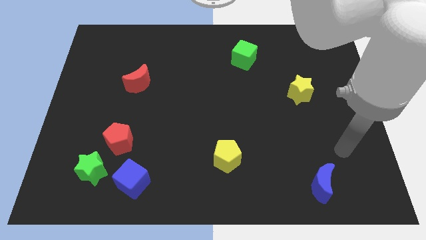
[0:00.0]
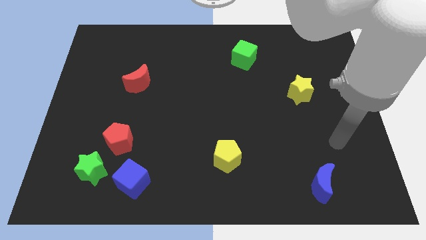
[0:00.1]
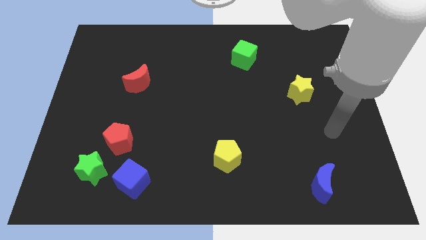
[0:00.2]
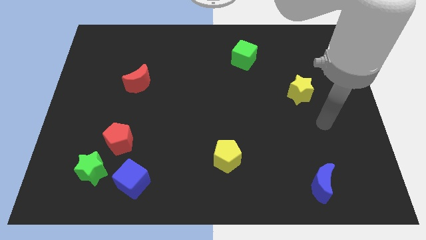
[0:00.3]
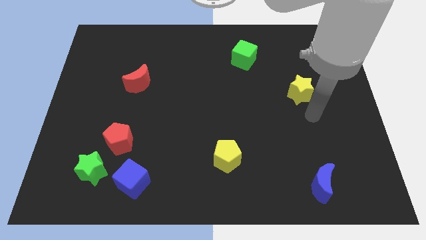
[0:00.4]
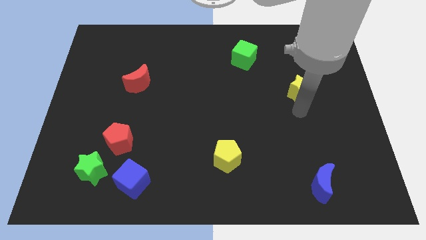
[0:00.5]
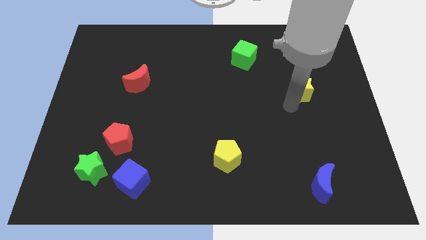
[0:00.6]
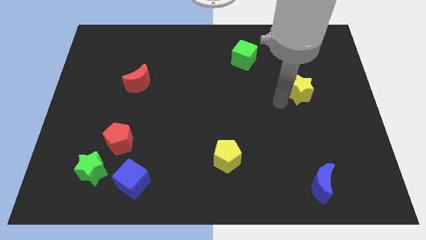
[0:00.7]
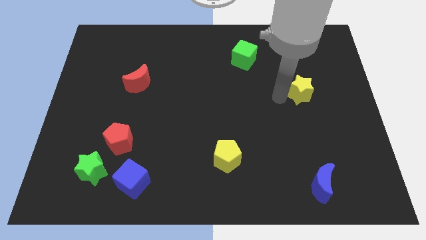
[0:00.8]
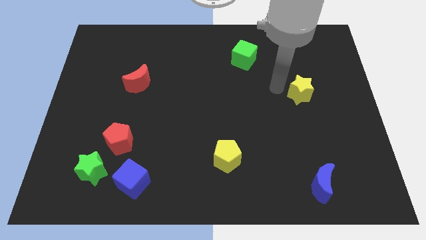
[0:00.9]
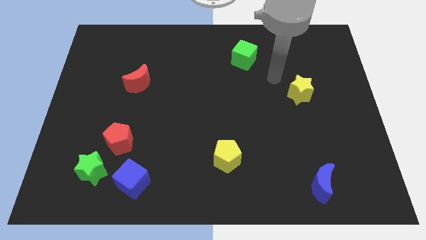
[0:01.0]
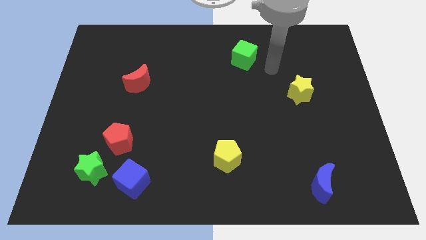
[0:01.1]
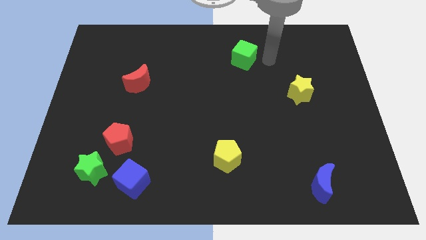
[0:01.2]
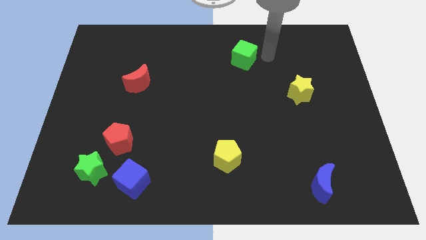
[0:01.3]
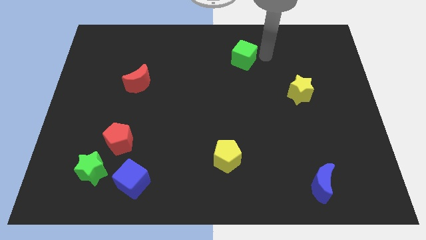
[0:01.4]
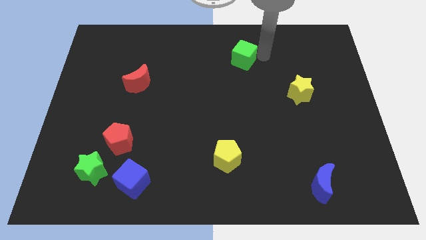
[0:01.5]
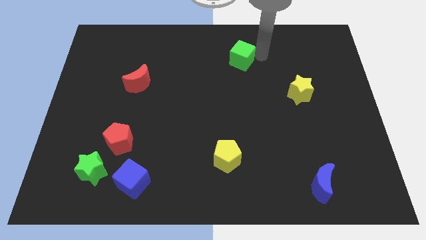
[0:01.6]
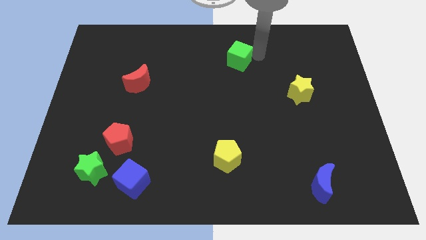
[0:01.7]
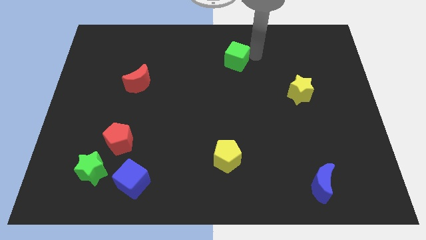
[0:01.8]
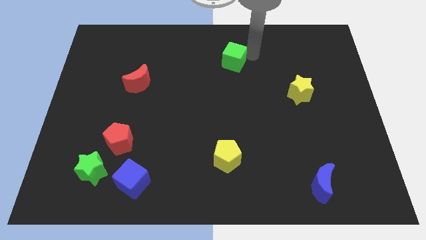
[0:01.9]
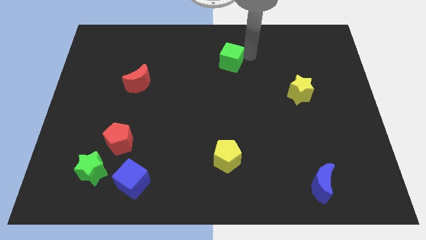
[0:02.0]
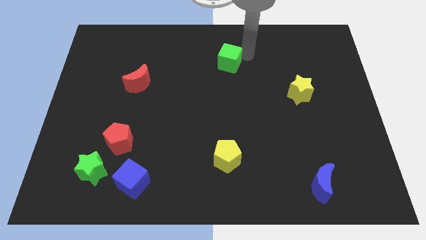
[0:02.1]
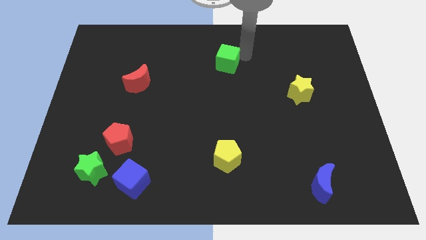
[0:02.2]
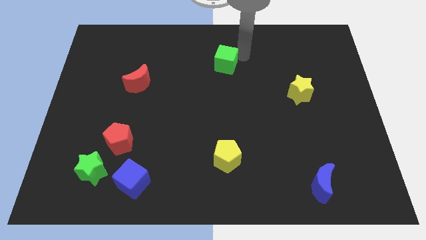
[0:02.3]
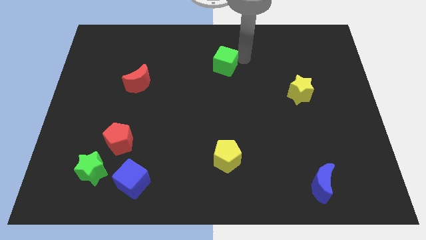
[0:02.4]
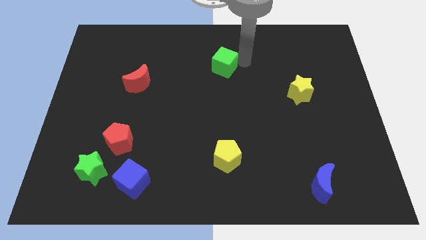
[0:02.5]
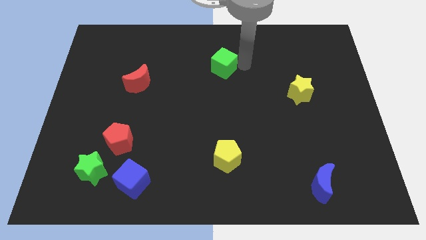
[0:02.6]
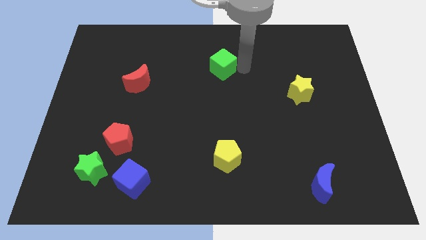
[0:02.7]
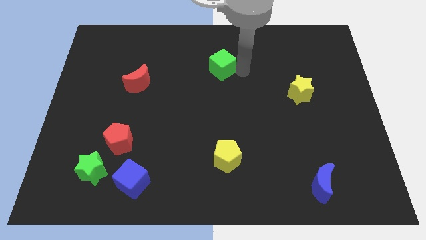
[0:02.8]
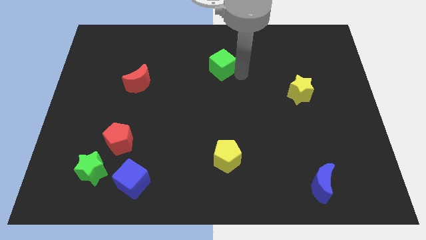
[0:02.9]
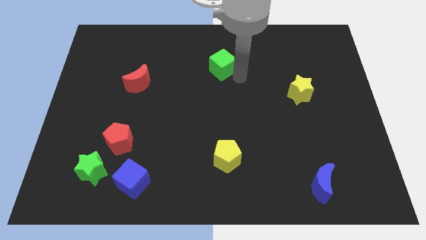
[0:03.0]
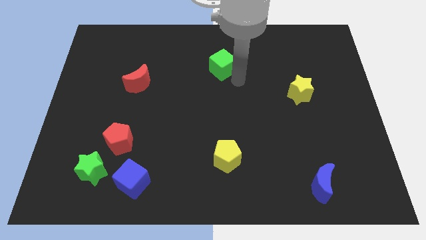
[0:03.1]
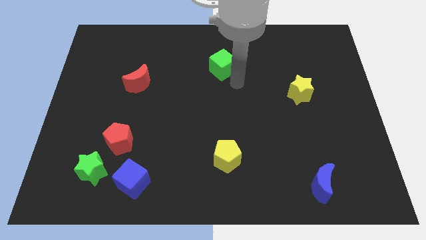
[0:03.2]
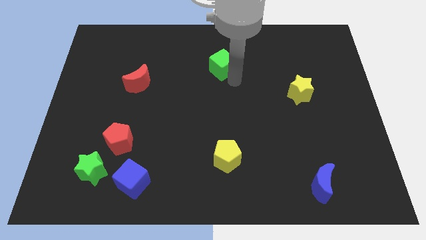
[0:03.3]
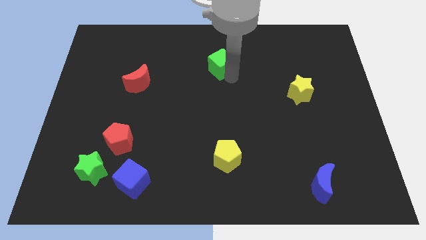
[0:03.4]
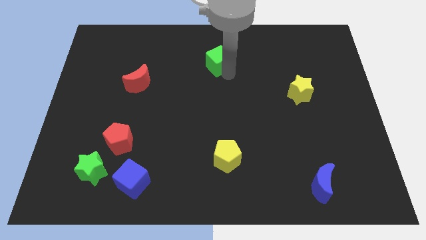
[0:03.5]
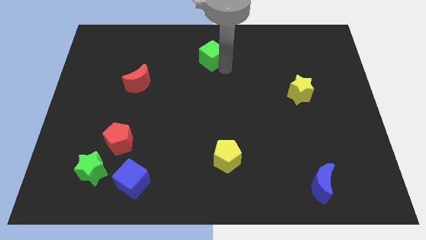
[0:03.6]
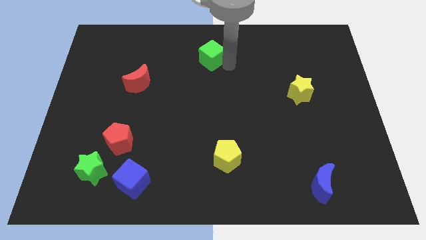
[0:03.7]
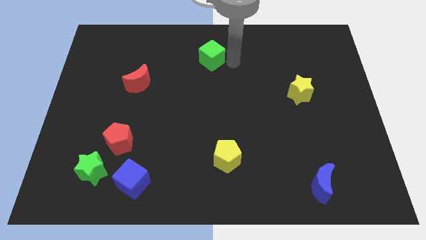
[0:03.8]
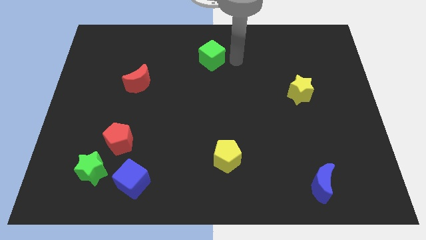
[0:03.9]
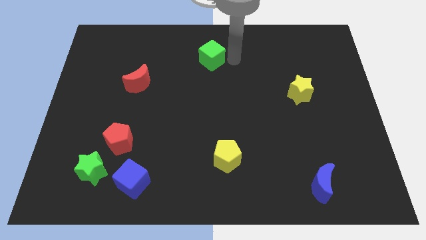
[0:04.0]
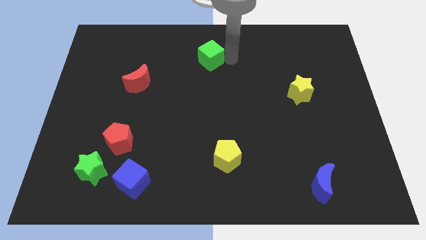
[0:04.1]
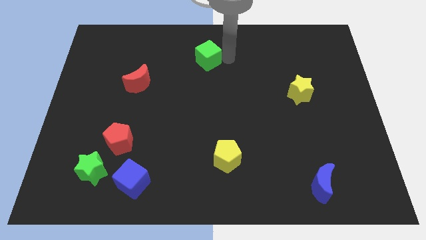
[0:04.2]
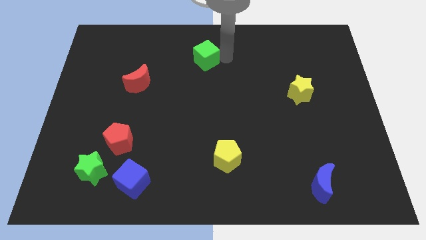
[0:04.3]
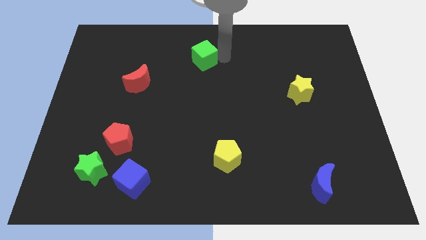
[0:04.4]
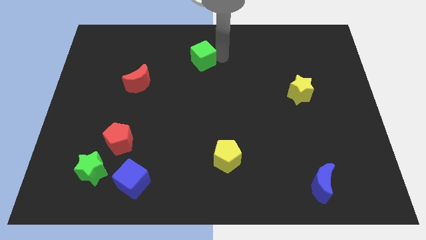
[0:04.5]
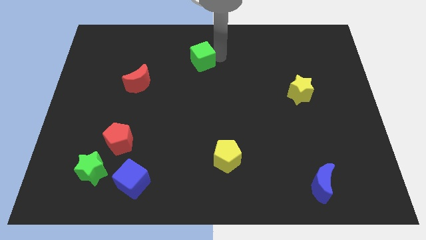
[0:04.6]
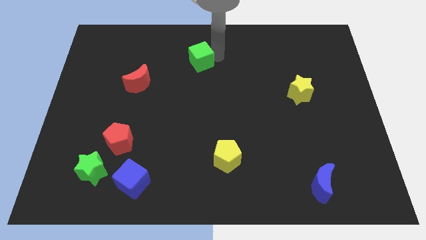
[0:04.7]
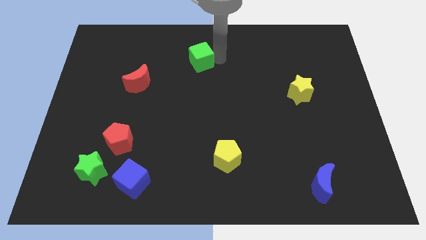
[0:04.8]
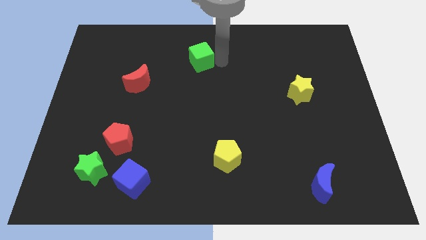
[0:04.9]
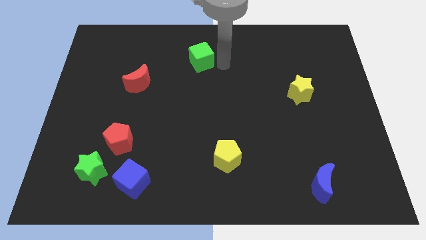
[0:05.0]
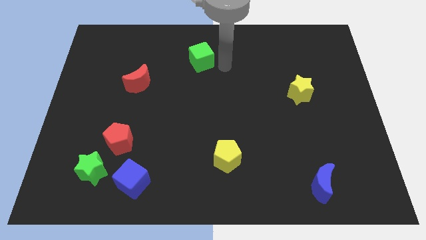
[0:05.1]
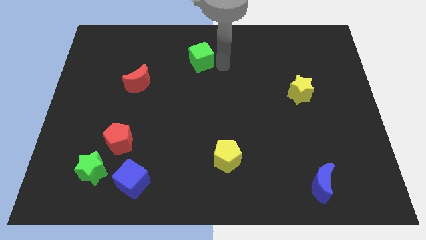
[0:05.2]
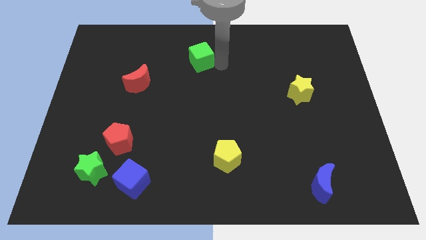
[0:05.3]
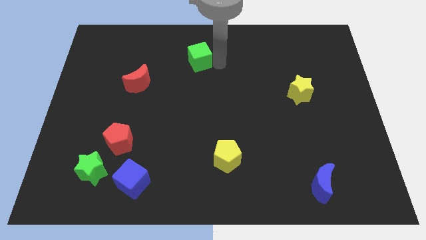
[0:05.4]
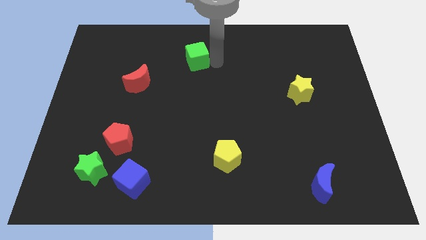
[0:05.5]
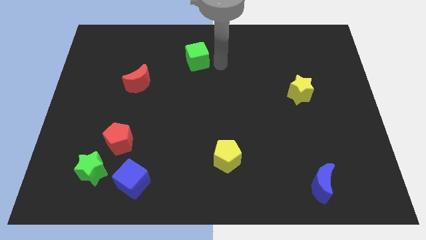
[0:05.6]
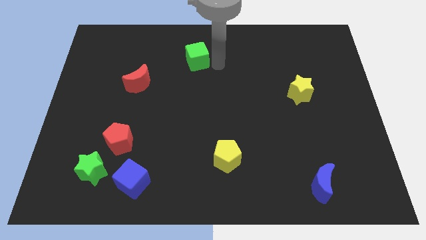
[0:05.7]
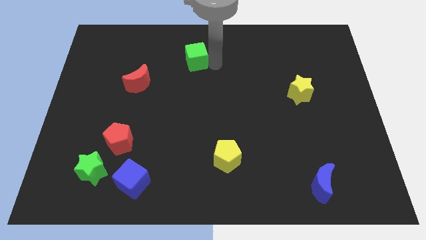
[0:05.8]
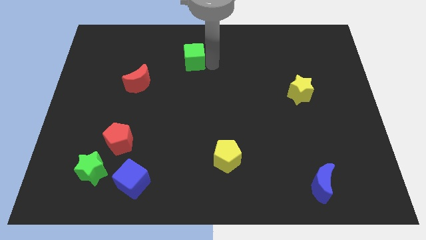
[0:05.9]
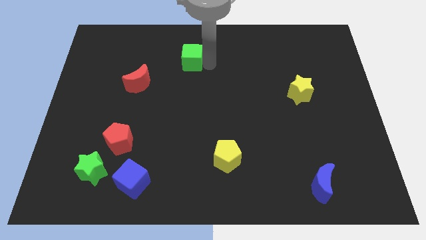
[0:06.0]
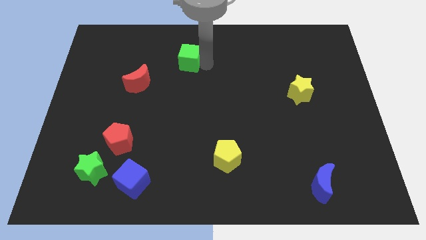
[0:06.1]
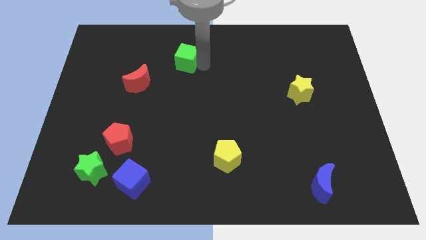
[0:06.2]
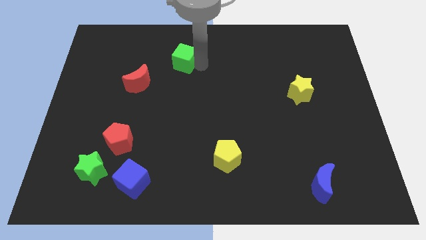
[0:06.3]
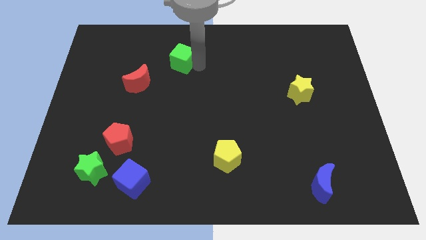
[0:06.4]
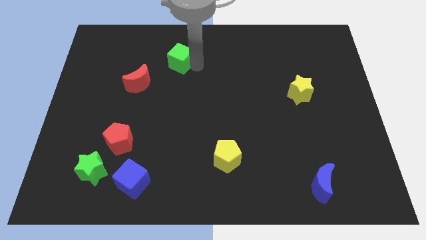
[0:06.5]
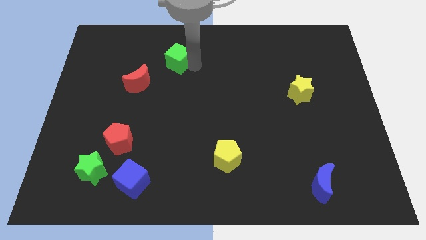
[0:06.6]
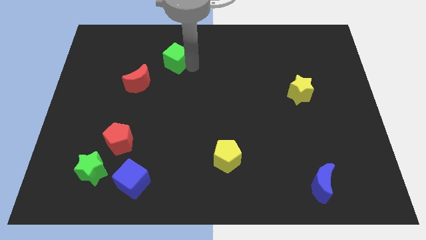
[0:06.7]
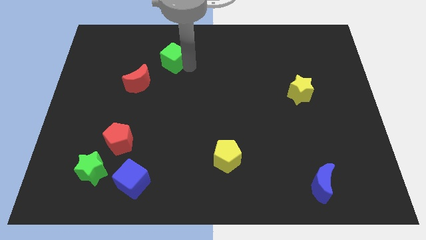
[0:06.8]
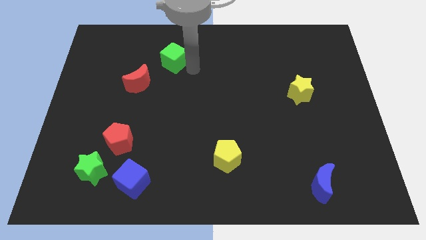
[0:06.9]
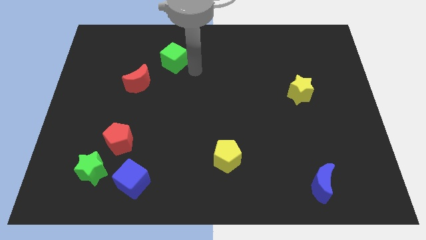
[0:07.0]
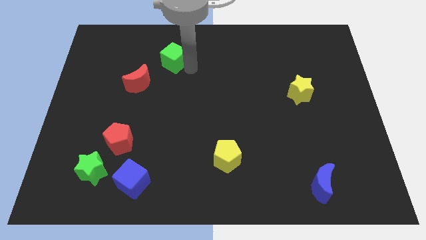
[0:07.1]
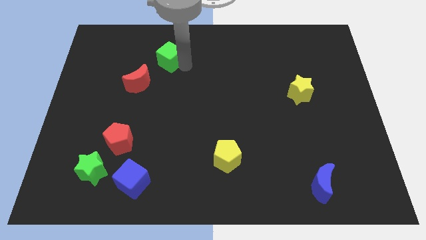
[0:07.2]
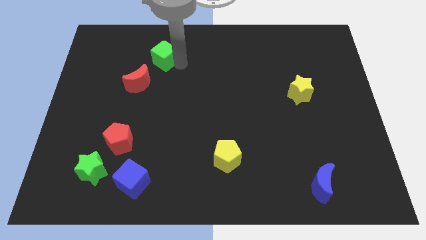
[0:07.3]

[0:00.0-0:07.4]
slide the green cube to the left

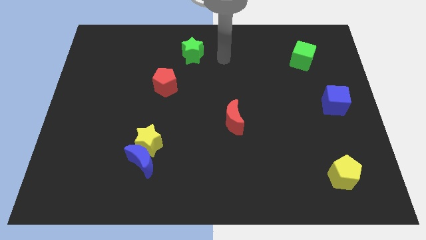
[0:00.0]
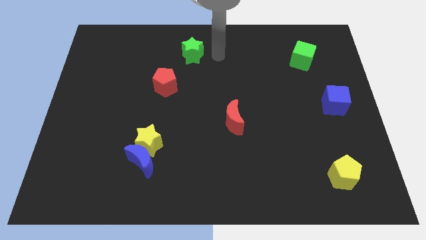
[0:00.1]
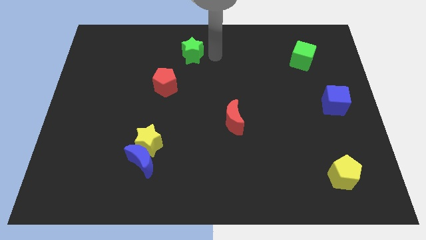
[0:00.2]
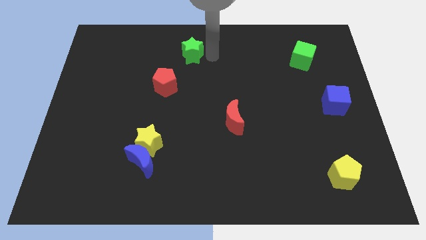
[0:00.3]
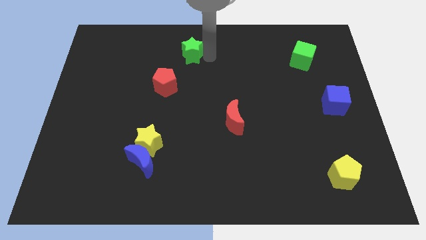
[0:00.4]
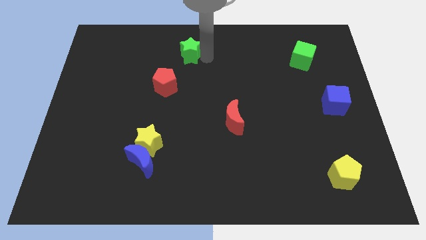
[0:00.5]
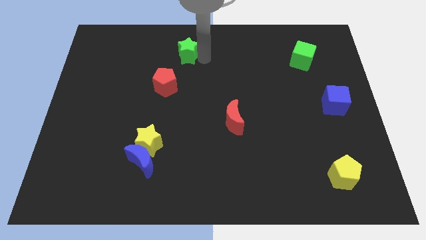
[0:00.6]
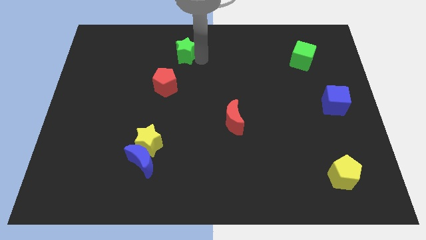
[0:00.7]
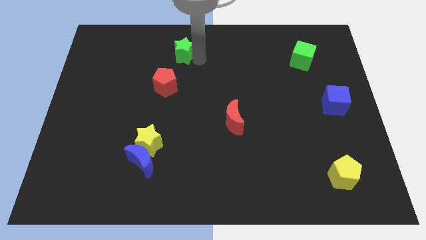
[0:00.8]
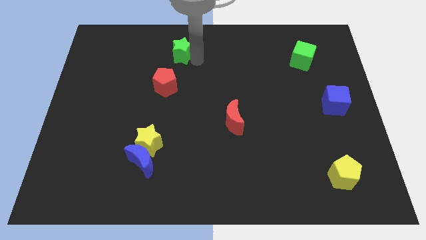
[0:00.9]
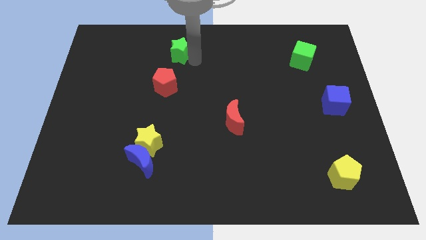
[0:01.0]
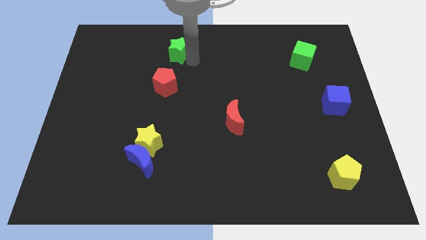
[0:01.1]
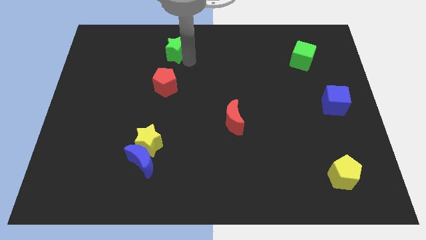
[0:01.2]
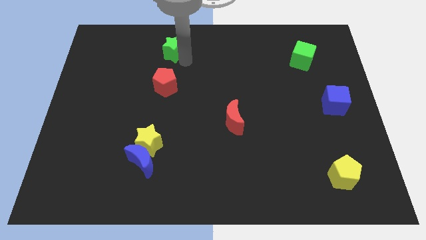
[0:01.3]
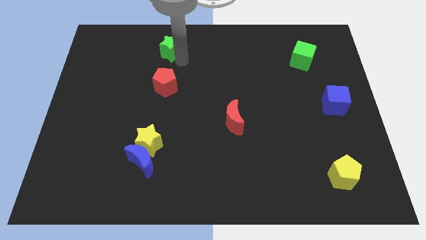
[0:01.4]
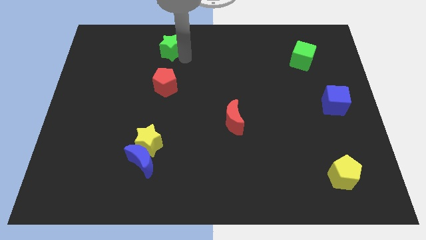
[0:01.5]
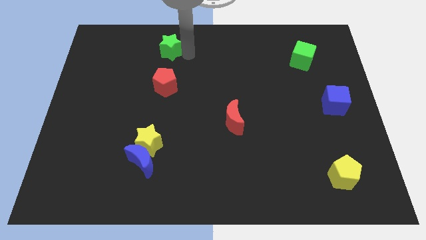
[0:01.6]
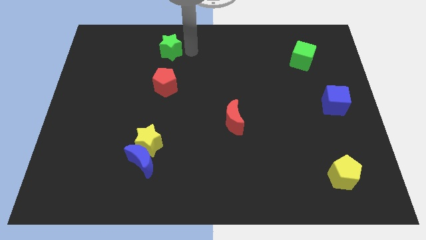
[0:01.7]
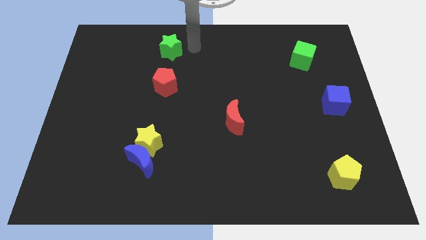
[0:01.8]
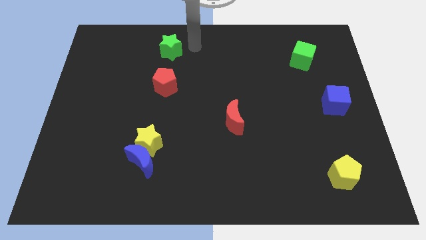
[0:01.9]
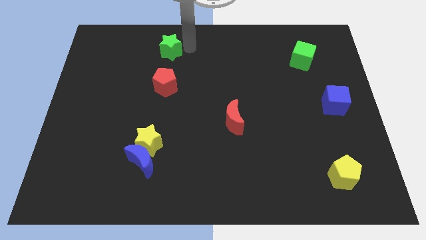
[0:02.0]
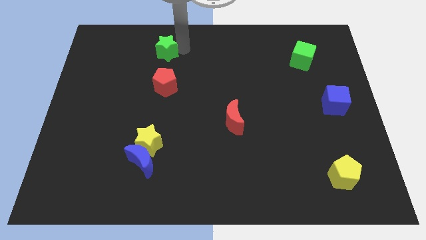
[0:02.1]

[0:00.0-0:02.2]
slightly slide the green star left
